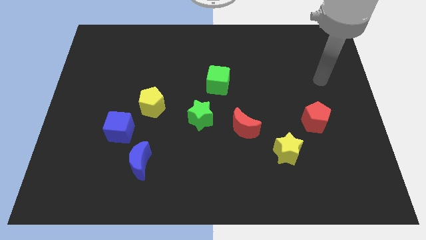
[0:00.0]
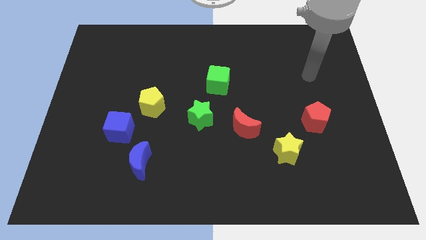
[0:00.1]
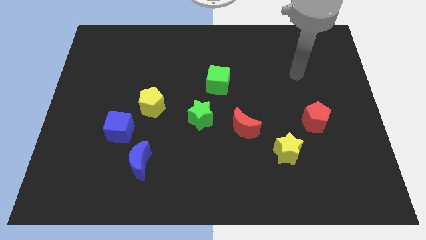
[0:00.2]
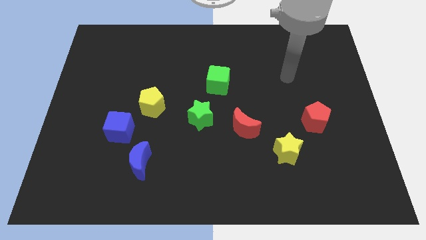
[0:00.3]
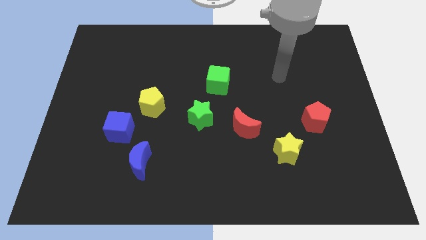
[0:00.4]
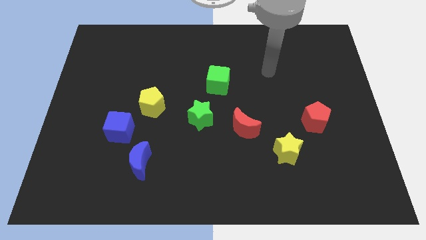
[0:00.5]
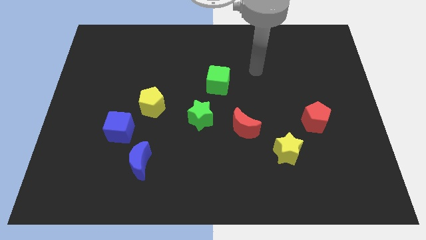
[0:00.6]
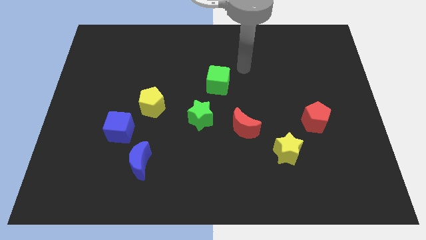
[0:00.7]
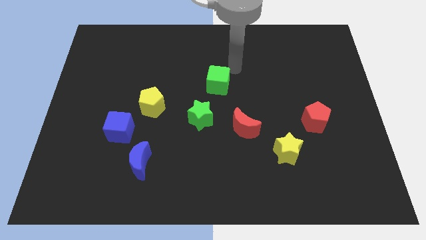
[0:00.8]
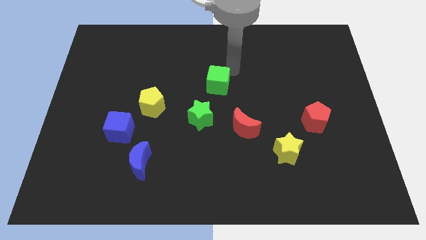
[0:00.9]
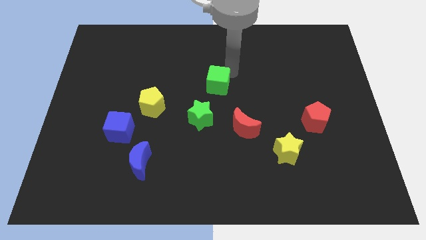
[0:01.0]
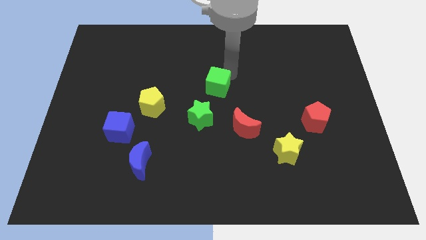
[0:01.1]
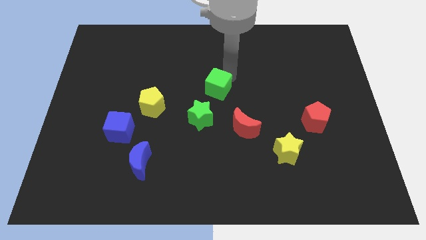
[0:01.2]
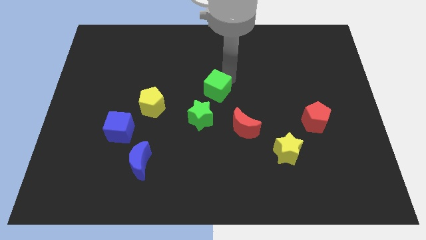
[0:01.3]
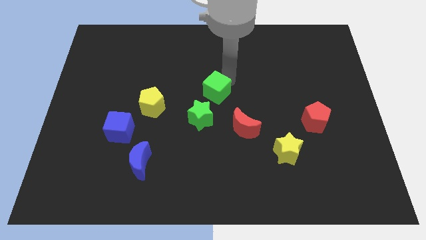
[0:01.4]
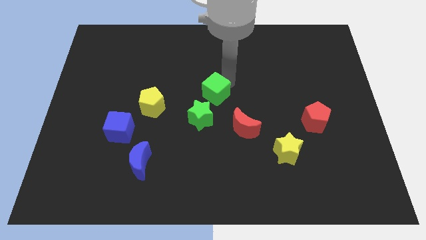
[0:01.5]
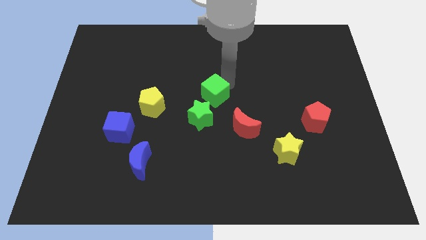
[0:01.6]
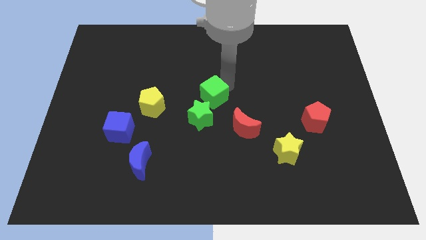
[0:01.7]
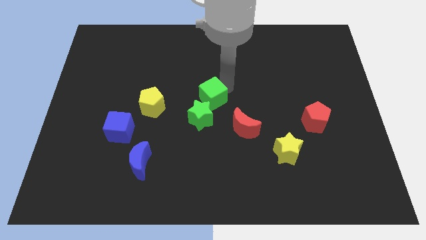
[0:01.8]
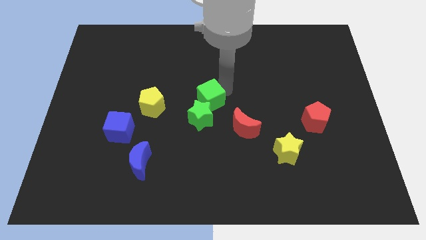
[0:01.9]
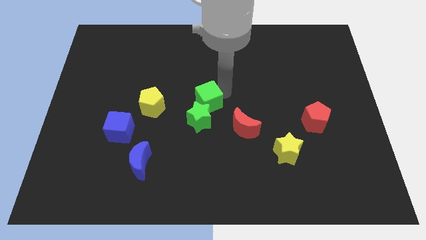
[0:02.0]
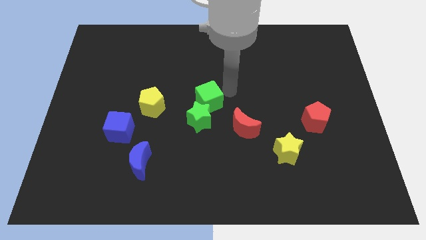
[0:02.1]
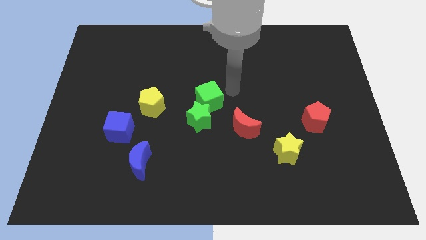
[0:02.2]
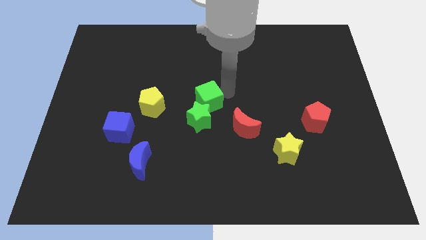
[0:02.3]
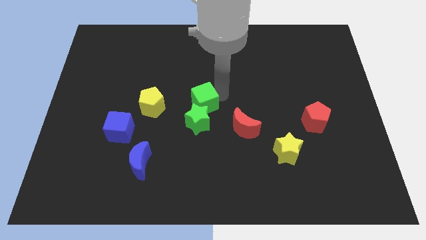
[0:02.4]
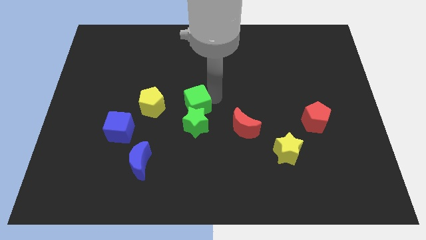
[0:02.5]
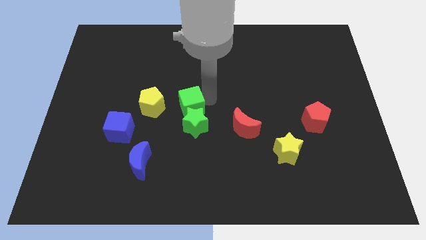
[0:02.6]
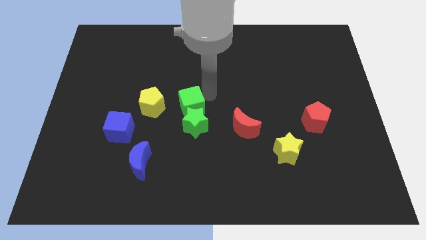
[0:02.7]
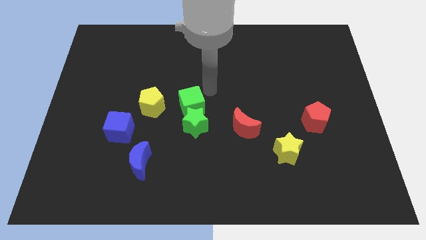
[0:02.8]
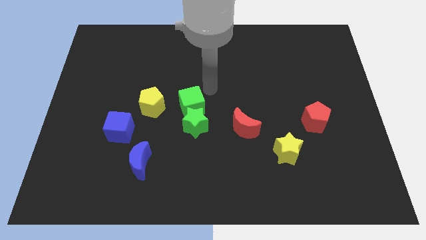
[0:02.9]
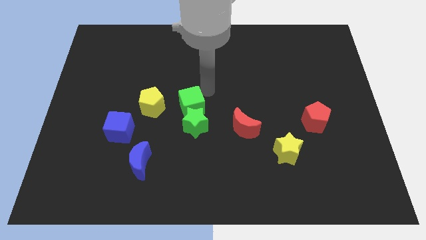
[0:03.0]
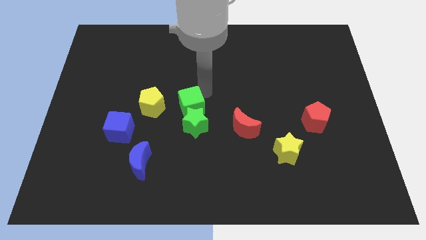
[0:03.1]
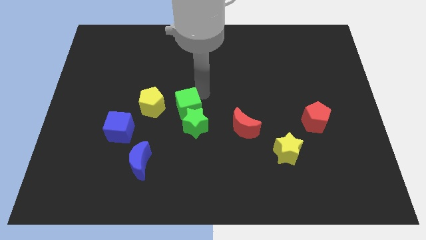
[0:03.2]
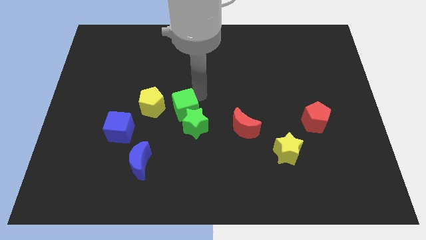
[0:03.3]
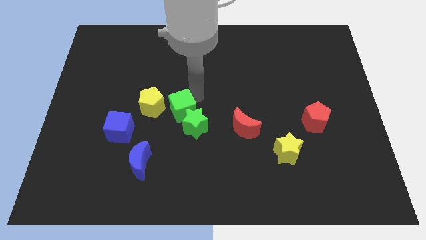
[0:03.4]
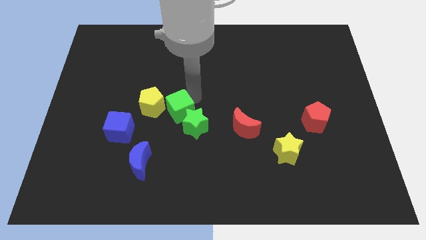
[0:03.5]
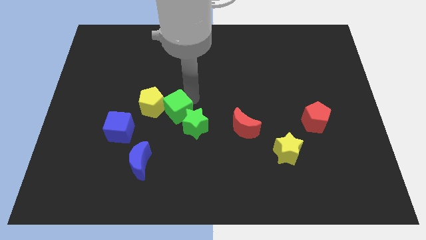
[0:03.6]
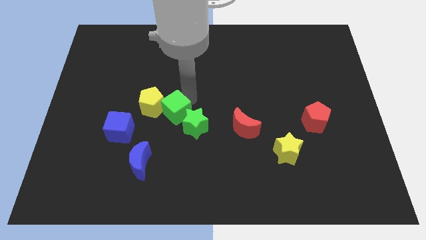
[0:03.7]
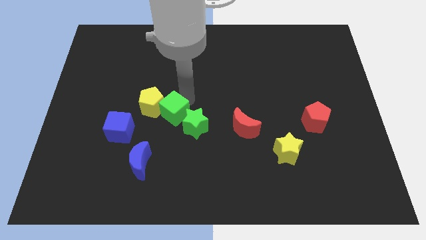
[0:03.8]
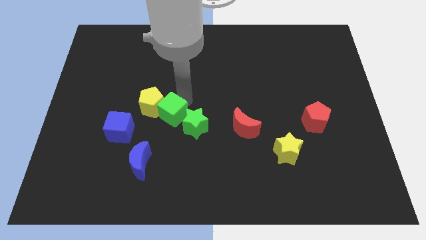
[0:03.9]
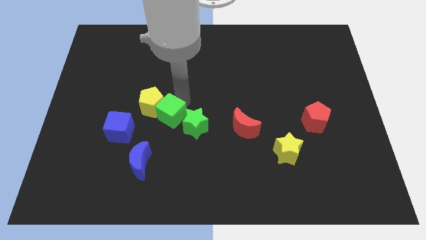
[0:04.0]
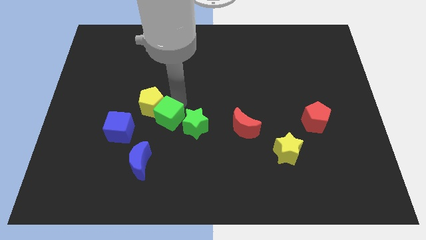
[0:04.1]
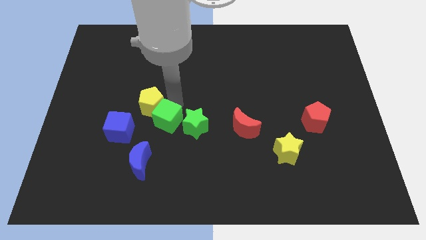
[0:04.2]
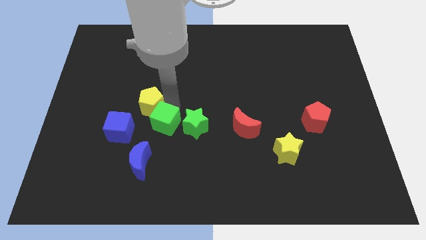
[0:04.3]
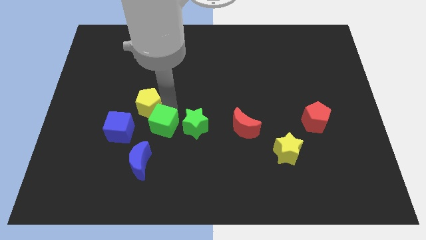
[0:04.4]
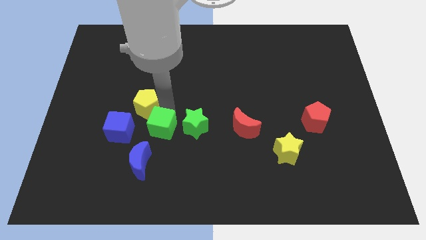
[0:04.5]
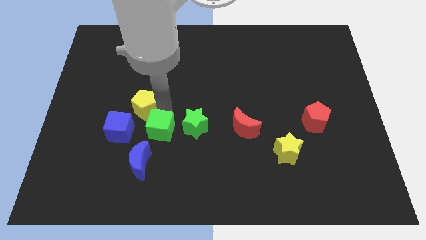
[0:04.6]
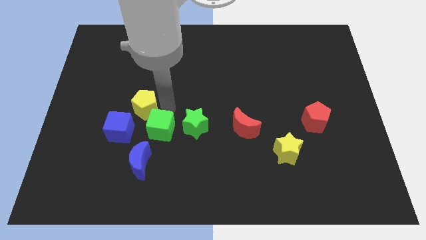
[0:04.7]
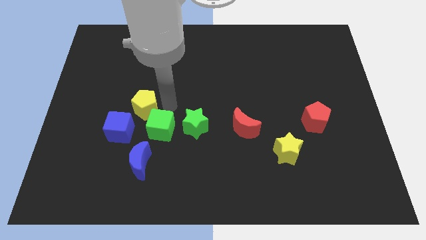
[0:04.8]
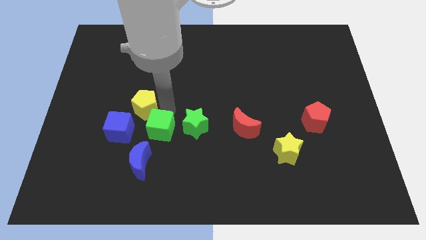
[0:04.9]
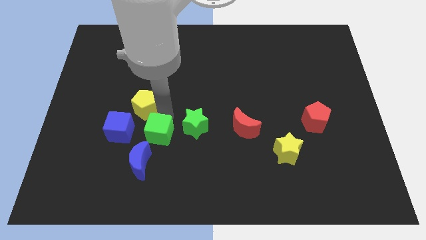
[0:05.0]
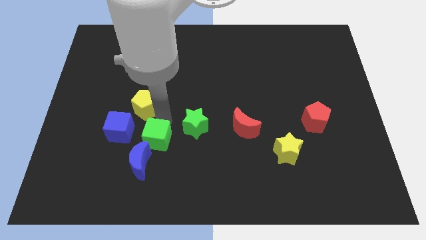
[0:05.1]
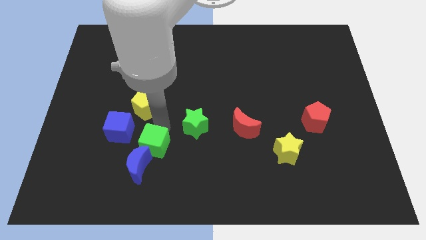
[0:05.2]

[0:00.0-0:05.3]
put the green cube towards the blue moon

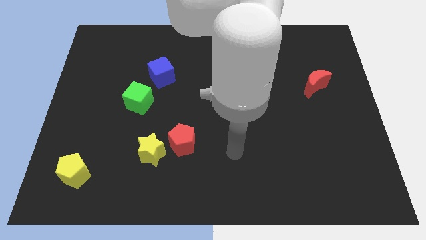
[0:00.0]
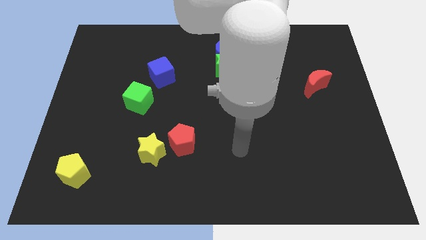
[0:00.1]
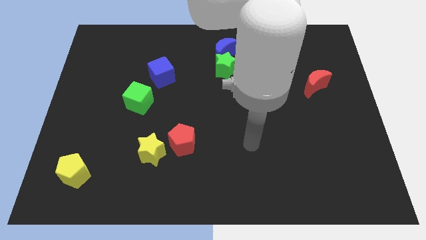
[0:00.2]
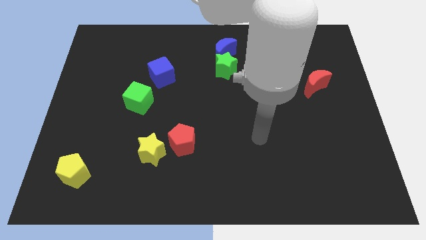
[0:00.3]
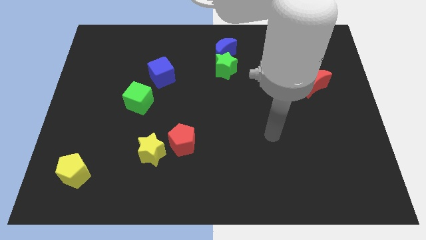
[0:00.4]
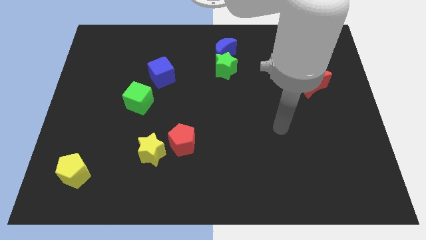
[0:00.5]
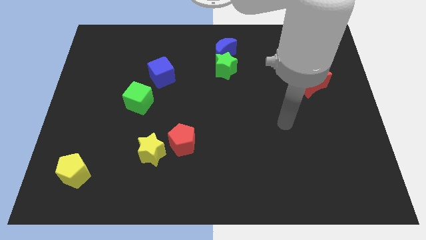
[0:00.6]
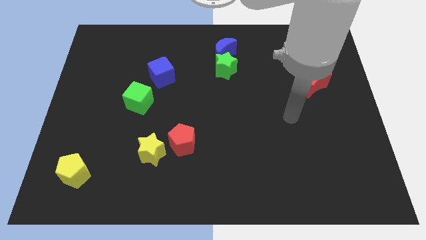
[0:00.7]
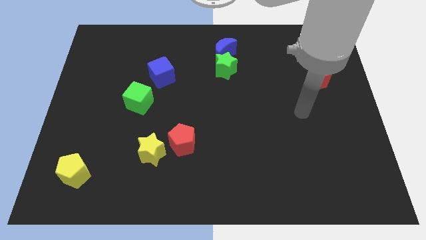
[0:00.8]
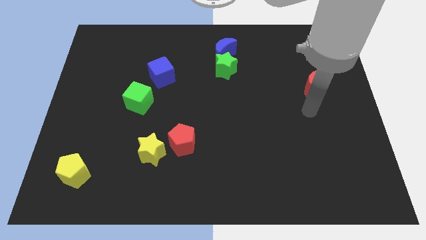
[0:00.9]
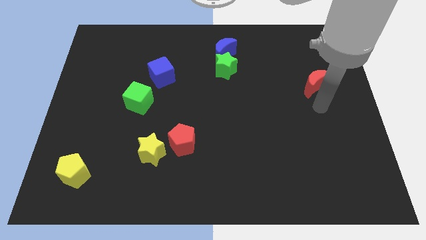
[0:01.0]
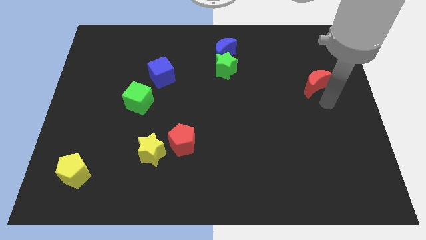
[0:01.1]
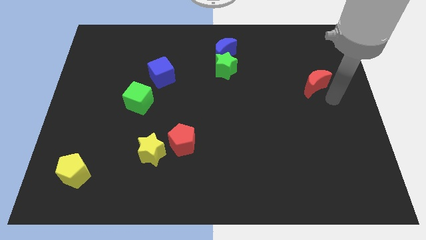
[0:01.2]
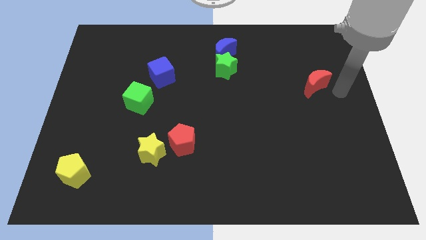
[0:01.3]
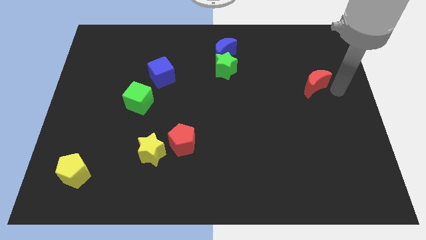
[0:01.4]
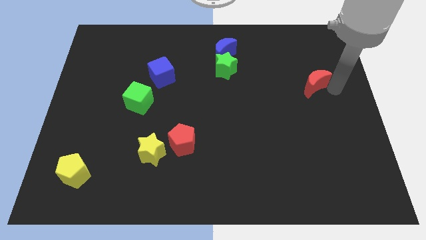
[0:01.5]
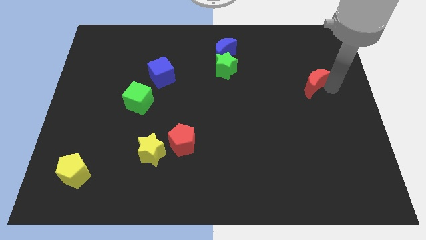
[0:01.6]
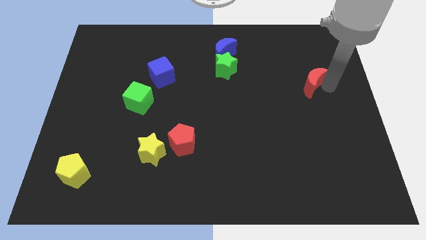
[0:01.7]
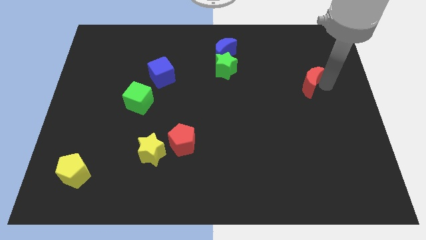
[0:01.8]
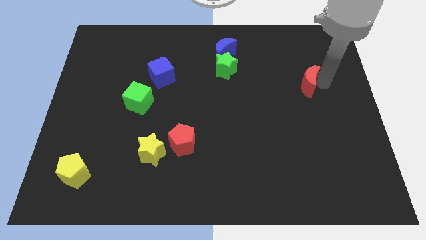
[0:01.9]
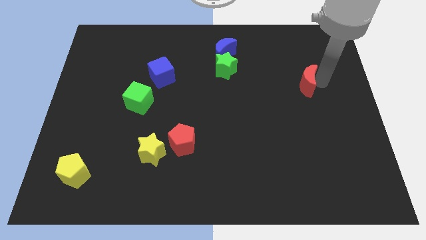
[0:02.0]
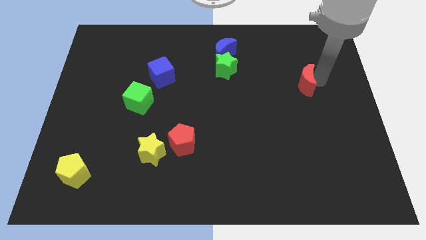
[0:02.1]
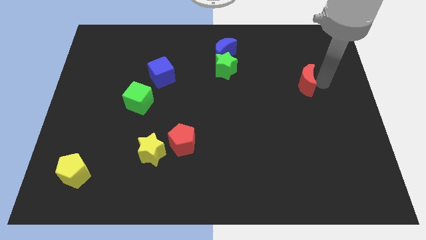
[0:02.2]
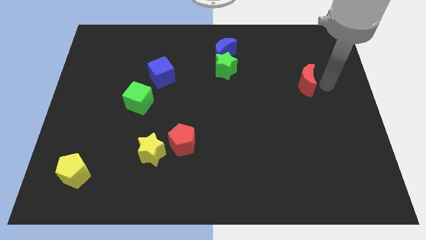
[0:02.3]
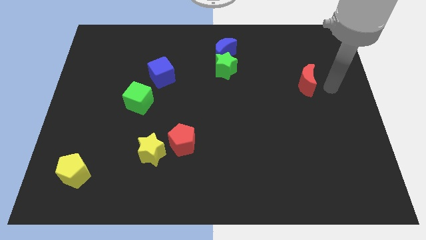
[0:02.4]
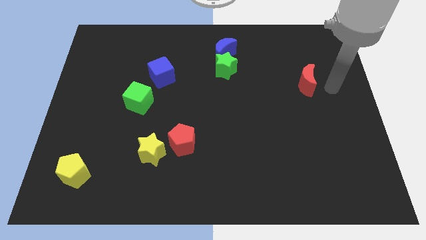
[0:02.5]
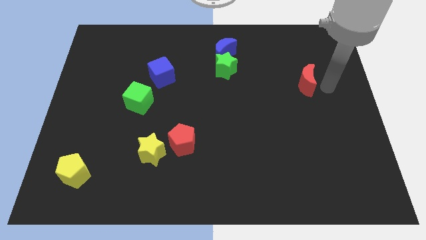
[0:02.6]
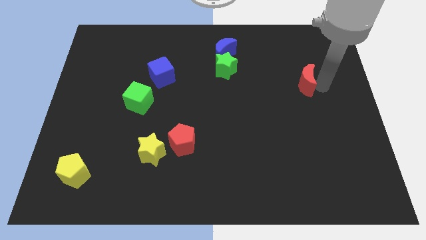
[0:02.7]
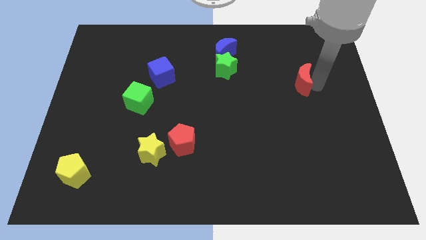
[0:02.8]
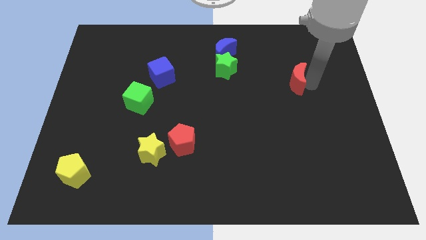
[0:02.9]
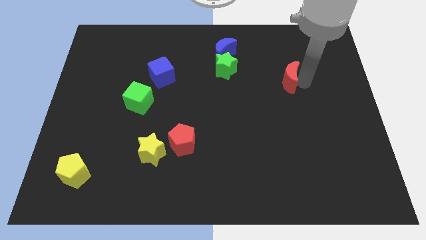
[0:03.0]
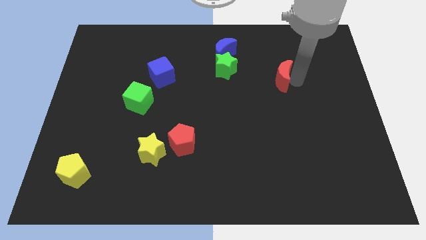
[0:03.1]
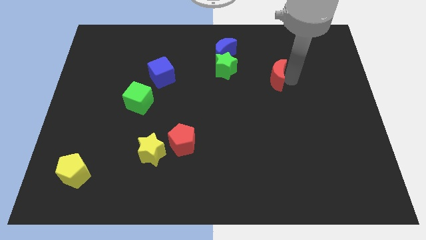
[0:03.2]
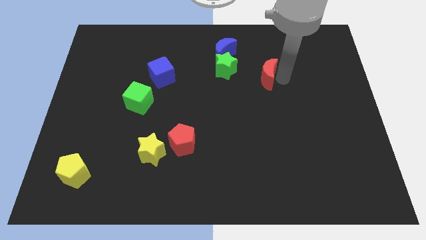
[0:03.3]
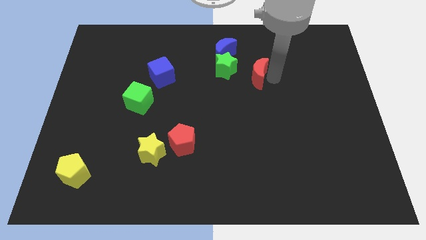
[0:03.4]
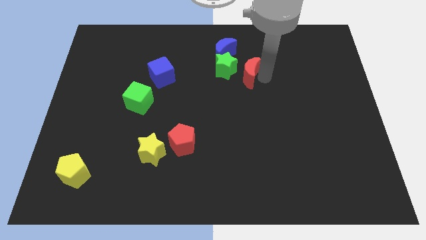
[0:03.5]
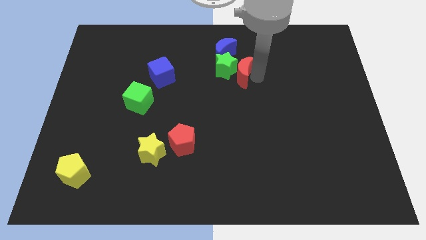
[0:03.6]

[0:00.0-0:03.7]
slide the red moon to the green star
